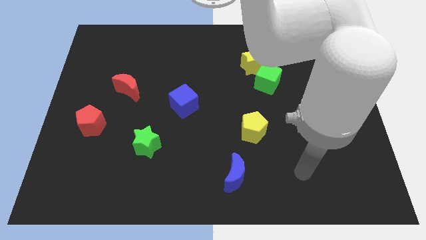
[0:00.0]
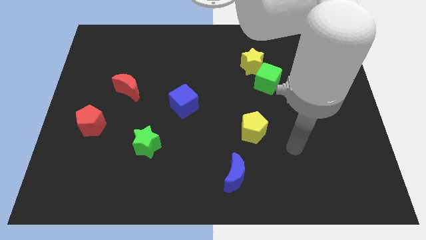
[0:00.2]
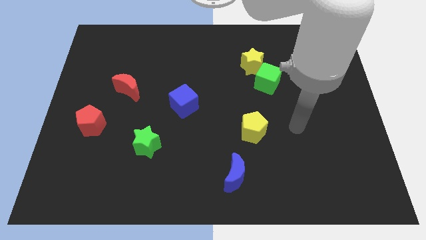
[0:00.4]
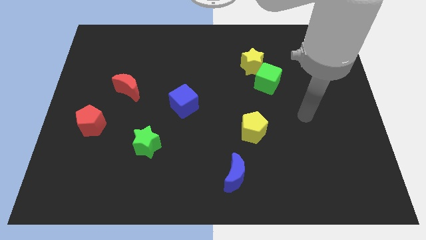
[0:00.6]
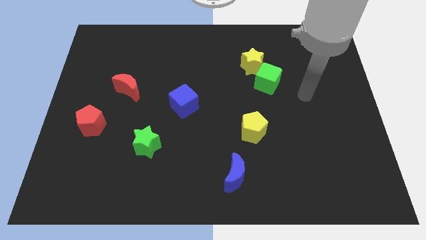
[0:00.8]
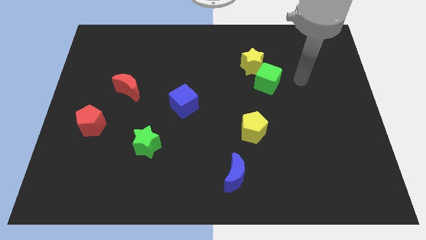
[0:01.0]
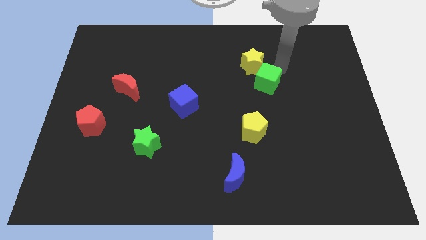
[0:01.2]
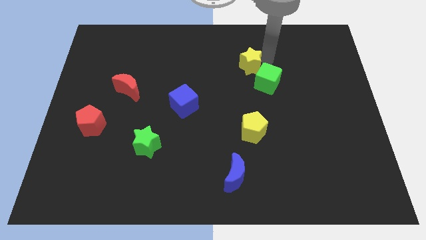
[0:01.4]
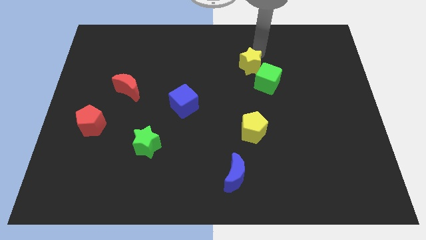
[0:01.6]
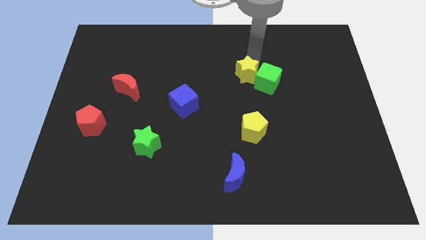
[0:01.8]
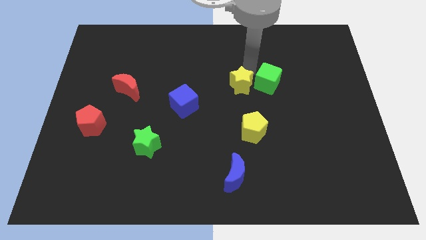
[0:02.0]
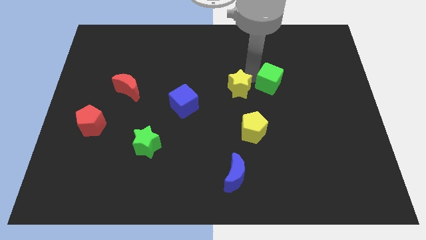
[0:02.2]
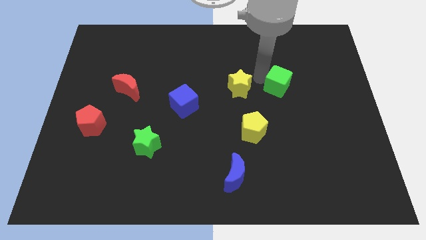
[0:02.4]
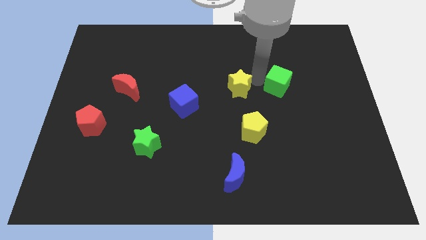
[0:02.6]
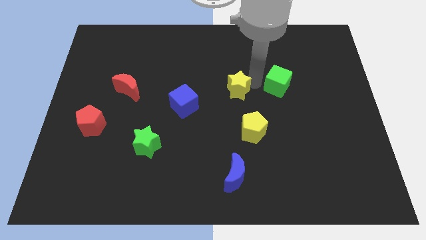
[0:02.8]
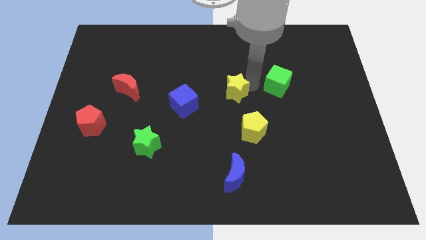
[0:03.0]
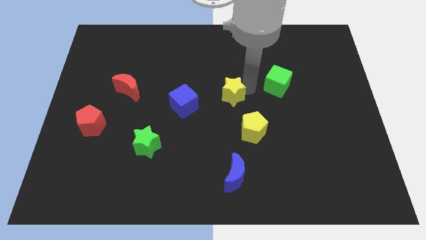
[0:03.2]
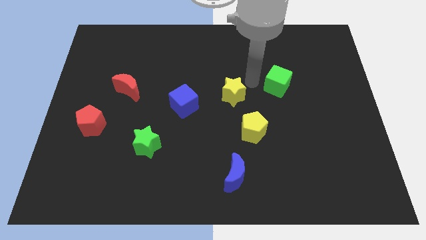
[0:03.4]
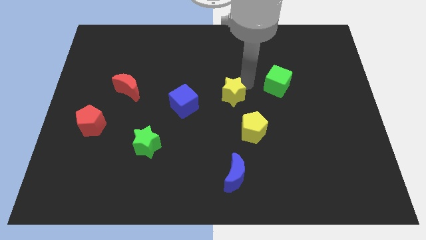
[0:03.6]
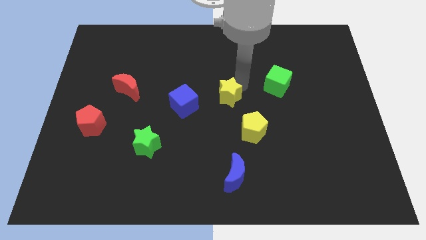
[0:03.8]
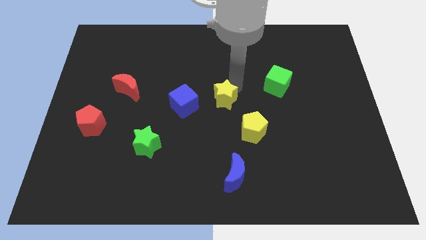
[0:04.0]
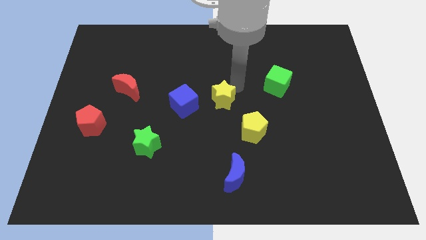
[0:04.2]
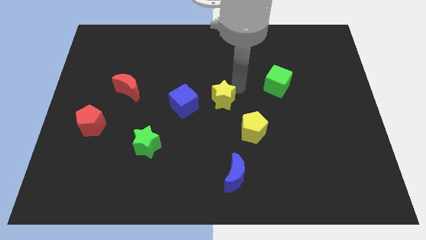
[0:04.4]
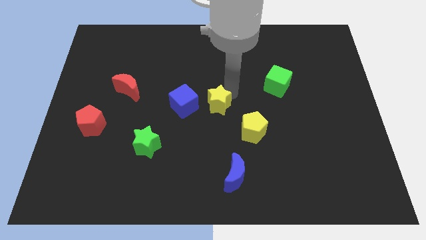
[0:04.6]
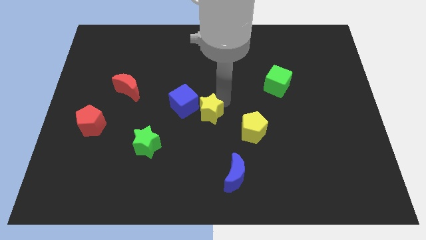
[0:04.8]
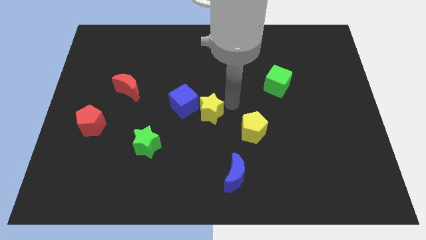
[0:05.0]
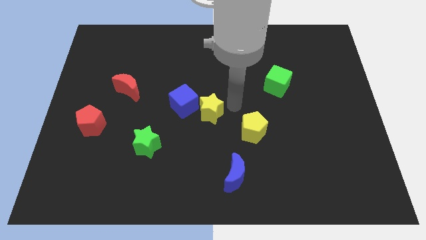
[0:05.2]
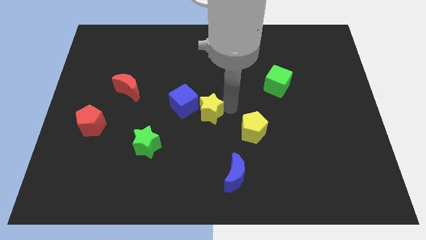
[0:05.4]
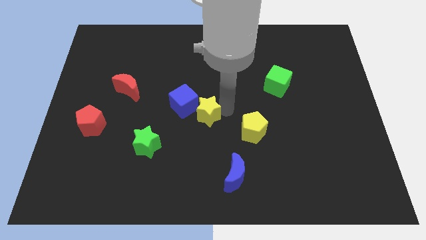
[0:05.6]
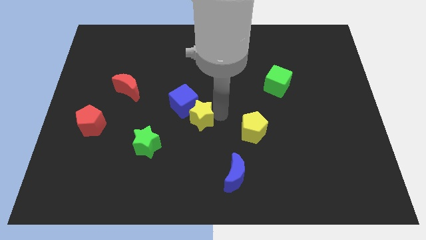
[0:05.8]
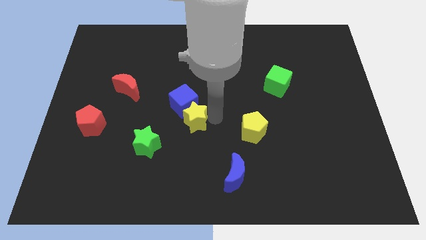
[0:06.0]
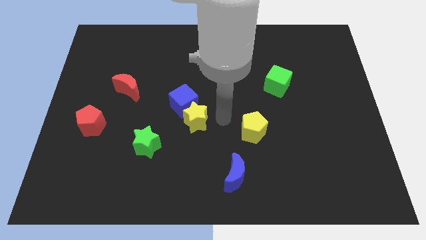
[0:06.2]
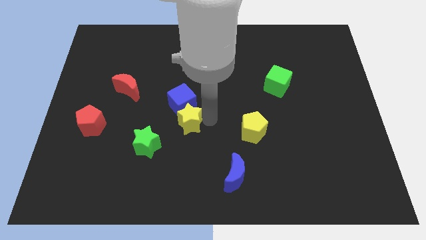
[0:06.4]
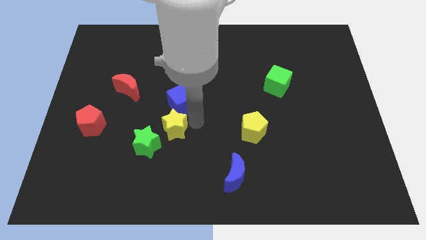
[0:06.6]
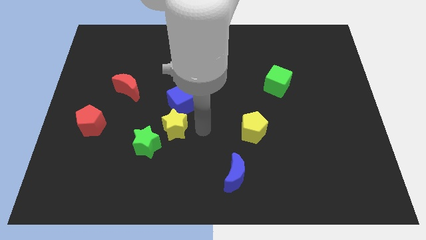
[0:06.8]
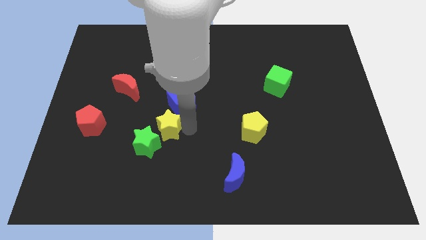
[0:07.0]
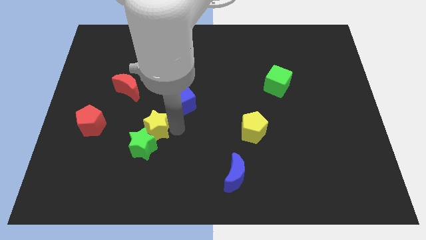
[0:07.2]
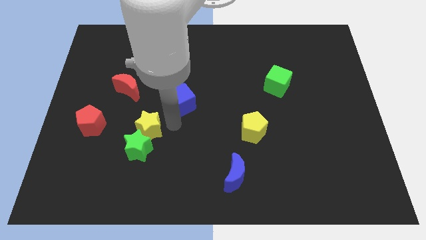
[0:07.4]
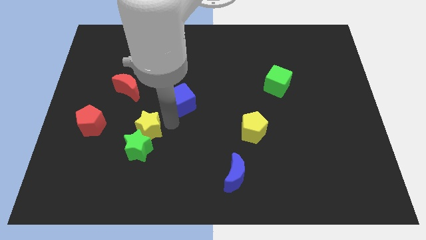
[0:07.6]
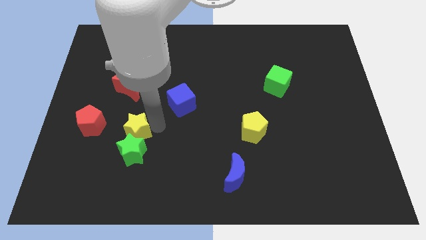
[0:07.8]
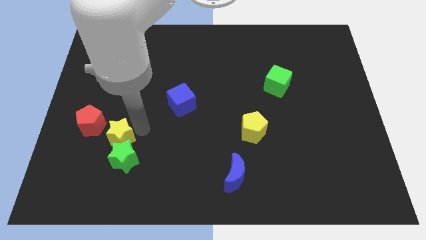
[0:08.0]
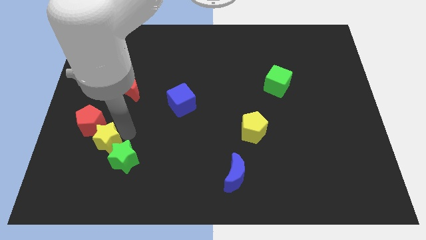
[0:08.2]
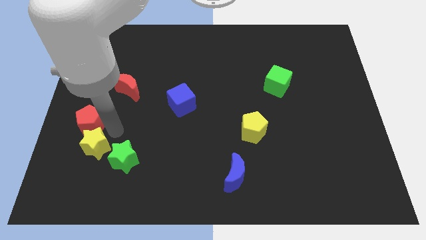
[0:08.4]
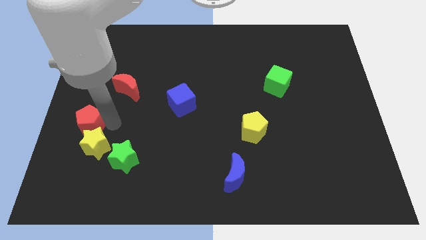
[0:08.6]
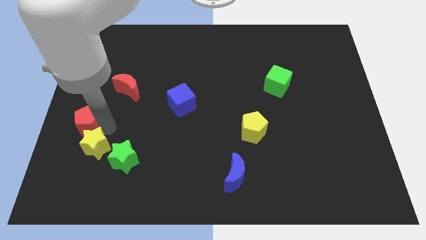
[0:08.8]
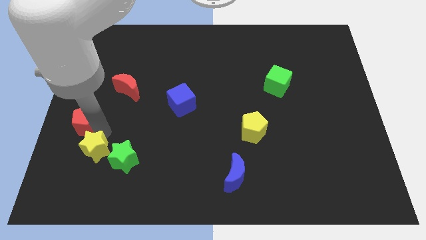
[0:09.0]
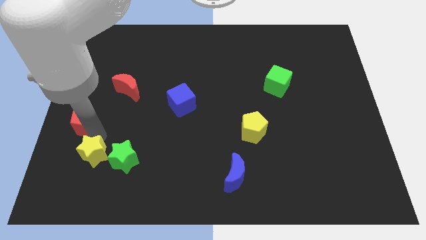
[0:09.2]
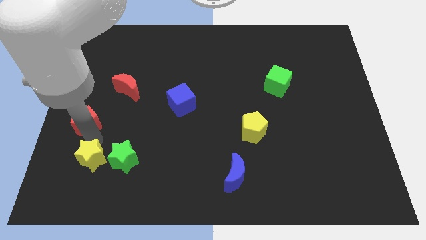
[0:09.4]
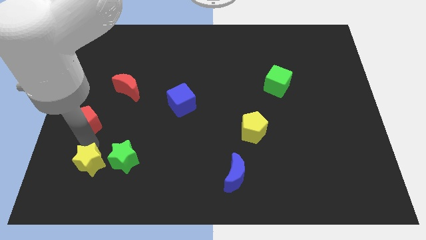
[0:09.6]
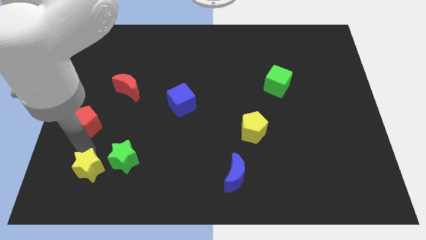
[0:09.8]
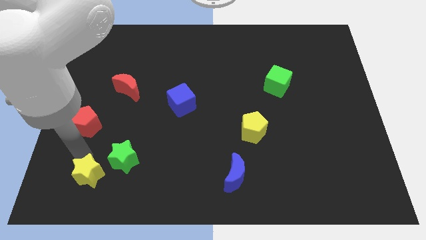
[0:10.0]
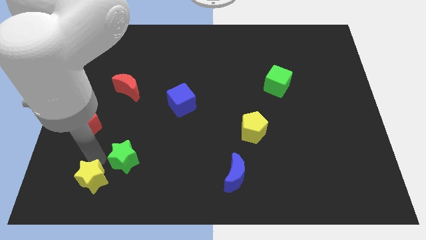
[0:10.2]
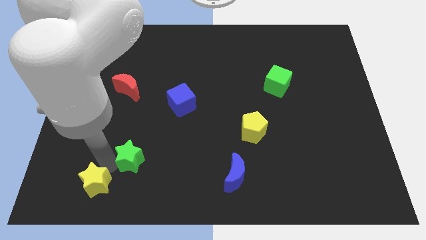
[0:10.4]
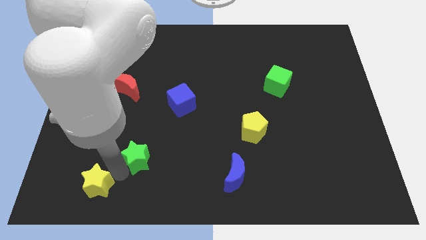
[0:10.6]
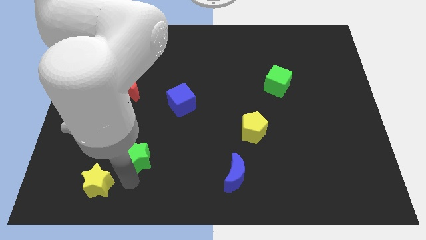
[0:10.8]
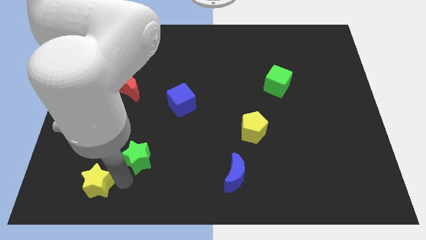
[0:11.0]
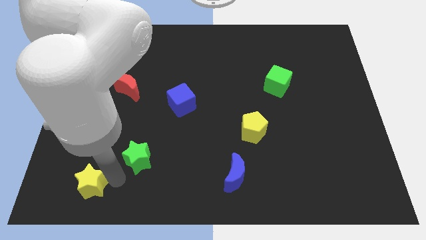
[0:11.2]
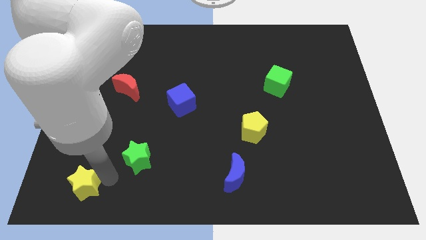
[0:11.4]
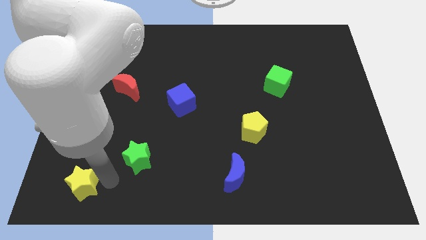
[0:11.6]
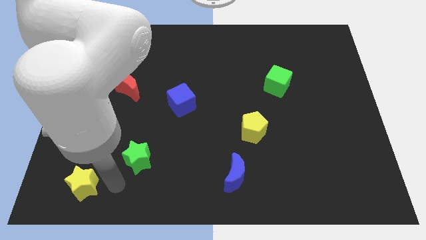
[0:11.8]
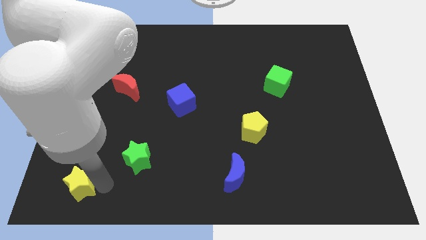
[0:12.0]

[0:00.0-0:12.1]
push the yellow star to the bottom left corner
